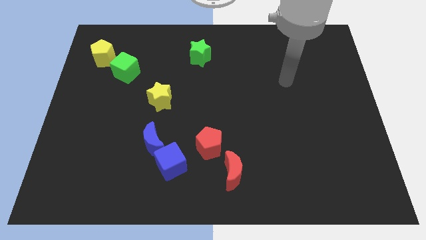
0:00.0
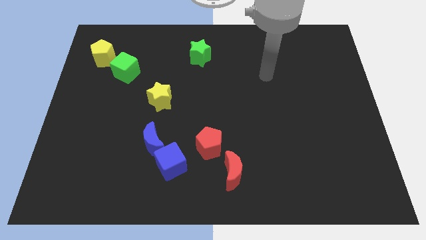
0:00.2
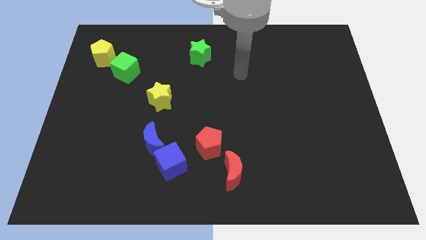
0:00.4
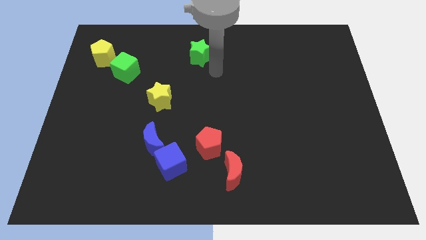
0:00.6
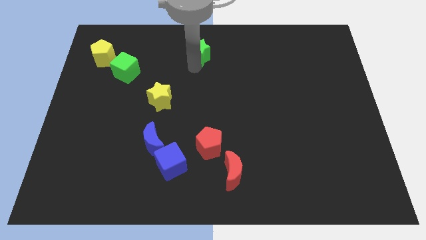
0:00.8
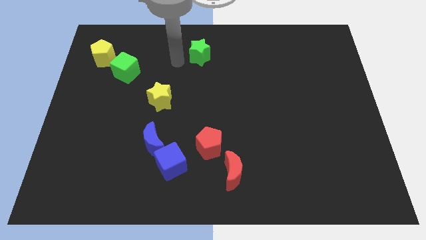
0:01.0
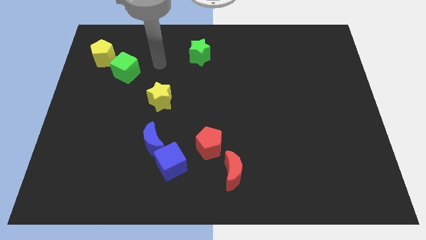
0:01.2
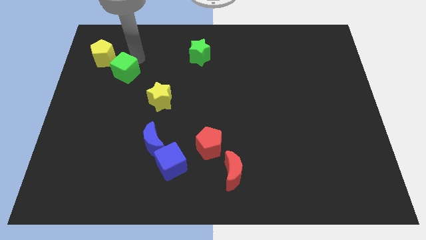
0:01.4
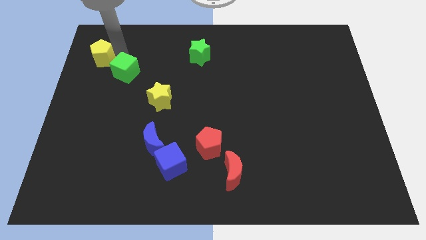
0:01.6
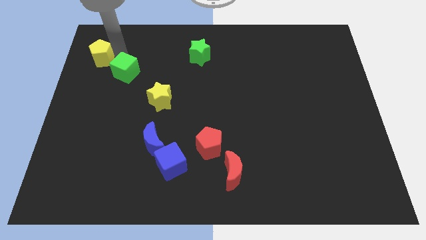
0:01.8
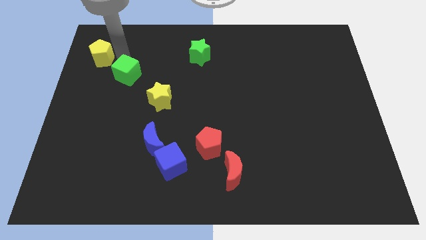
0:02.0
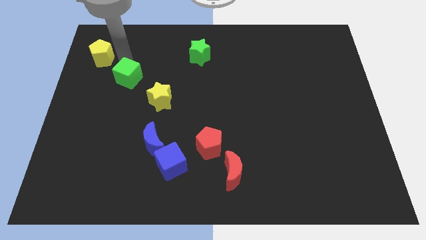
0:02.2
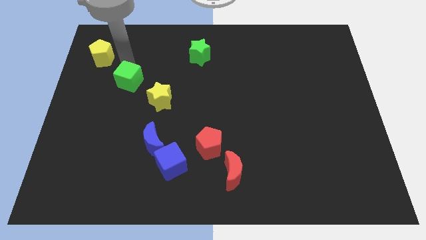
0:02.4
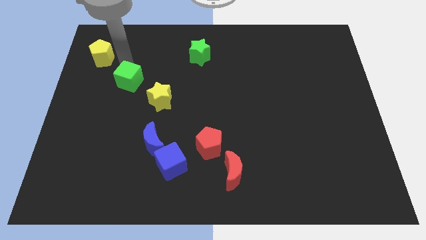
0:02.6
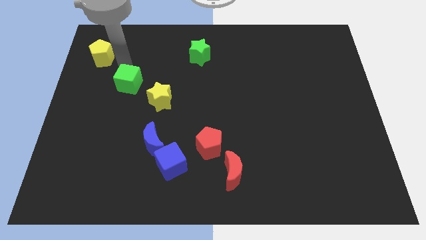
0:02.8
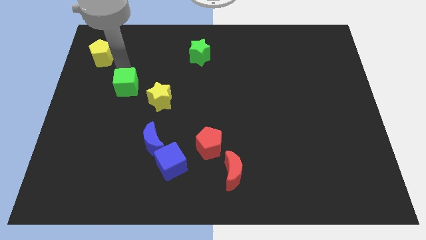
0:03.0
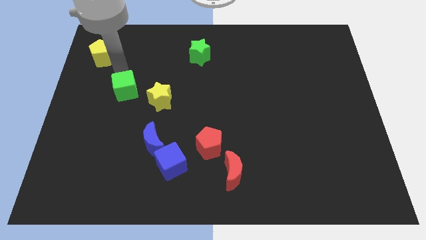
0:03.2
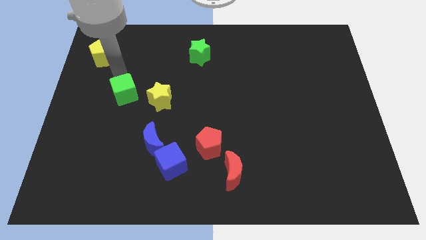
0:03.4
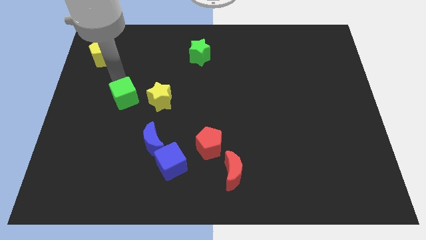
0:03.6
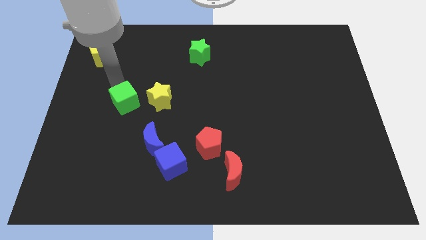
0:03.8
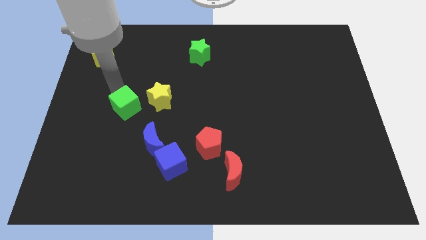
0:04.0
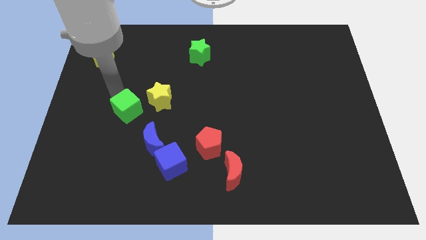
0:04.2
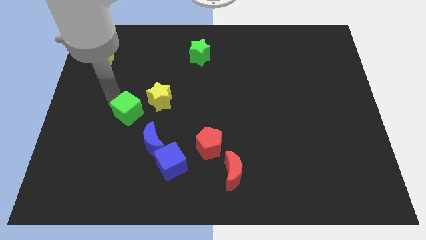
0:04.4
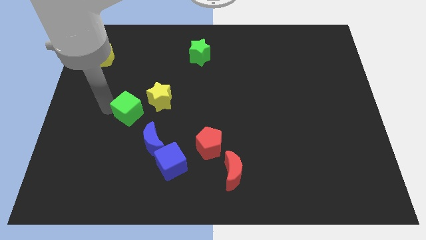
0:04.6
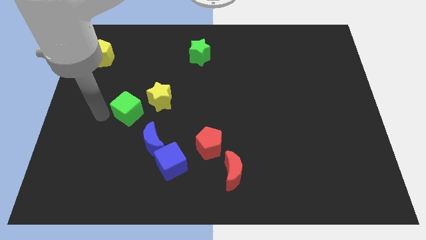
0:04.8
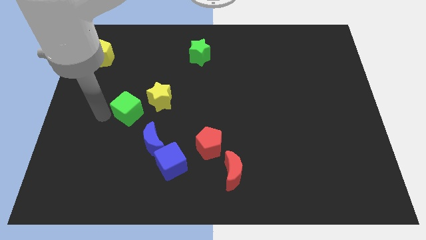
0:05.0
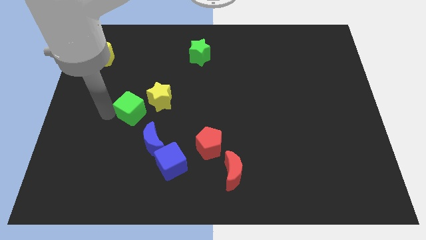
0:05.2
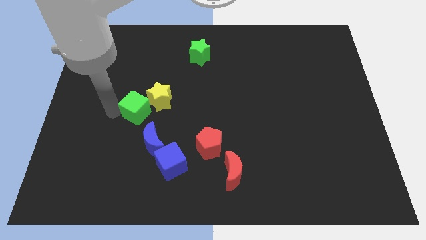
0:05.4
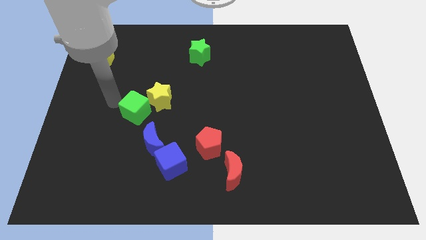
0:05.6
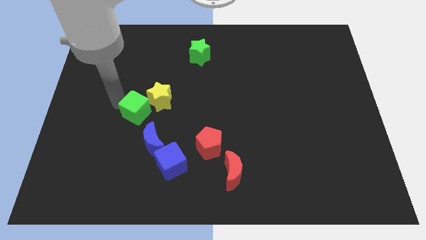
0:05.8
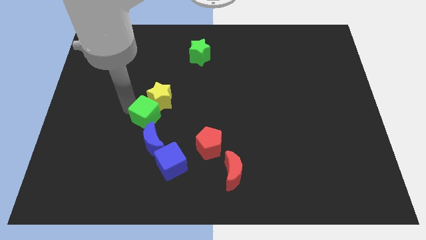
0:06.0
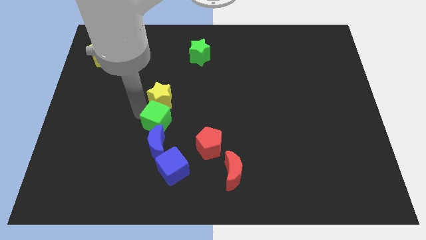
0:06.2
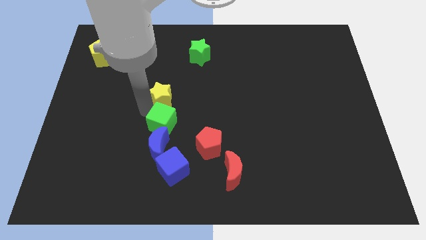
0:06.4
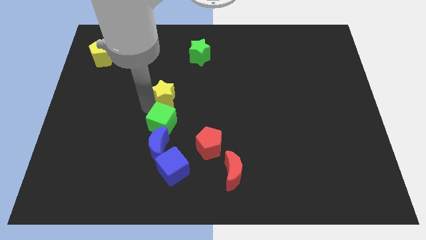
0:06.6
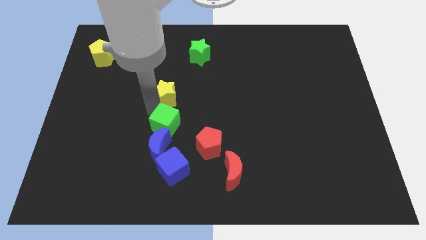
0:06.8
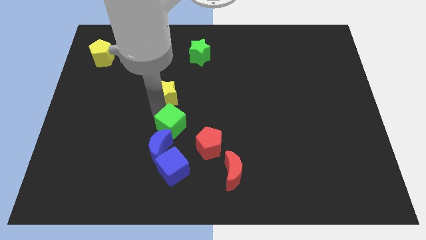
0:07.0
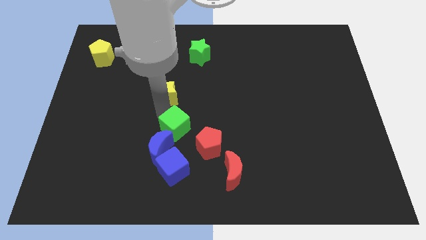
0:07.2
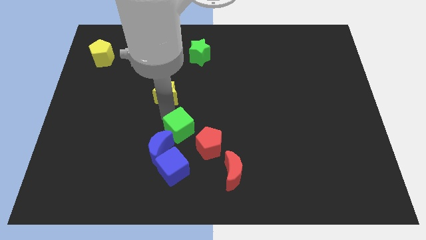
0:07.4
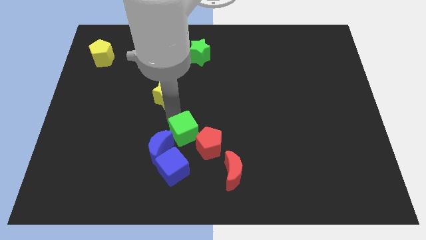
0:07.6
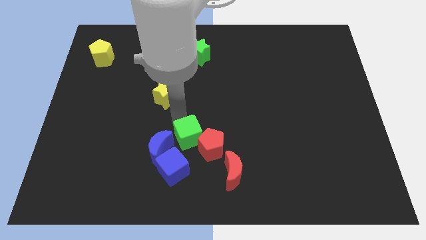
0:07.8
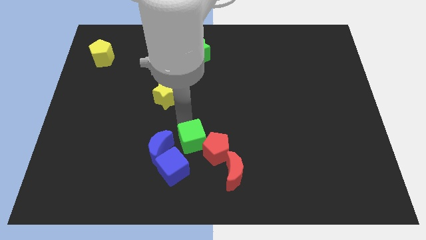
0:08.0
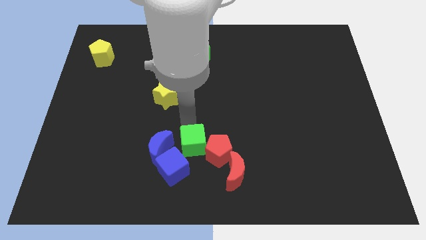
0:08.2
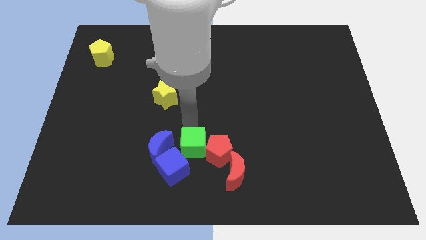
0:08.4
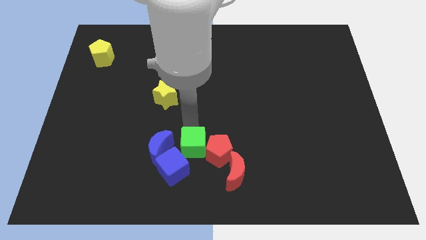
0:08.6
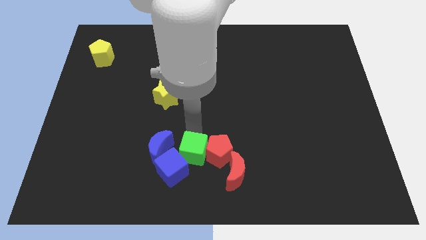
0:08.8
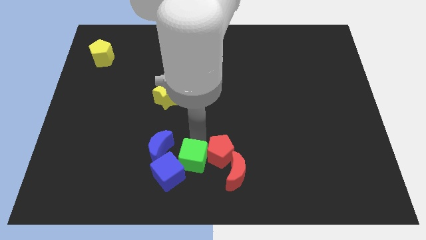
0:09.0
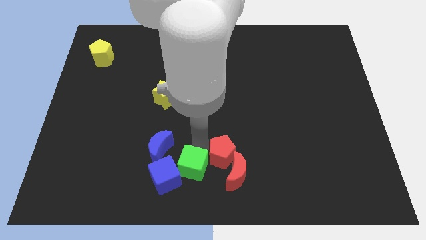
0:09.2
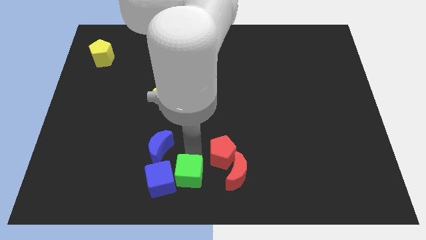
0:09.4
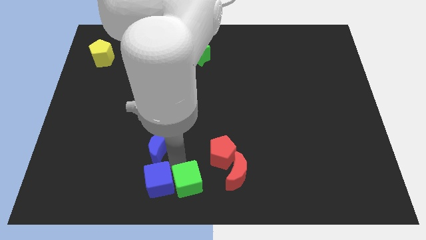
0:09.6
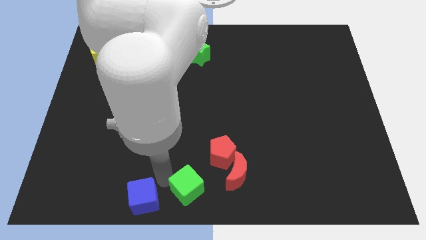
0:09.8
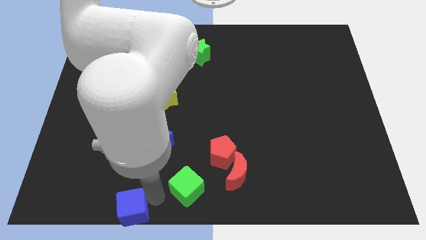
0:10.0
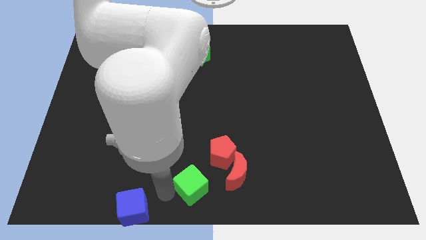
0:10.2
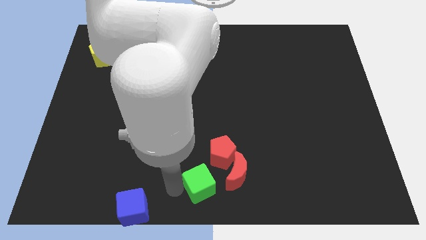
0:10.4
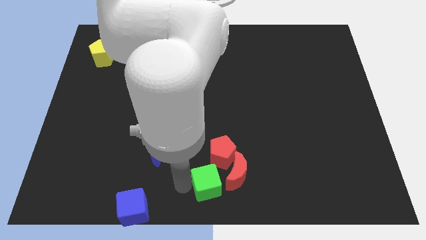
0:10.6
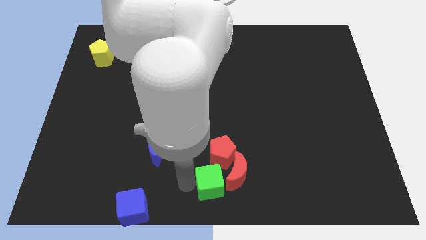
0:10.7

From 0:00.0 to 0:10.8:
move the green cube close to the red moon

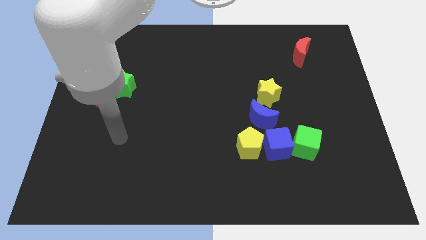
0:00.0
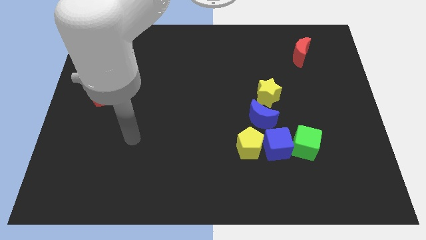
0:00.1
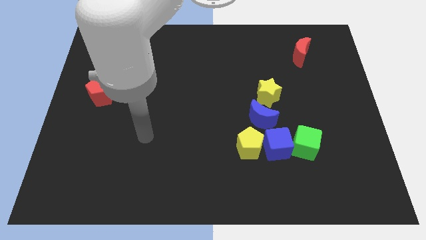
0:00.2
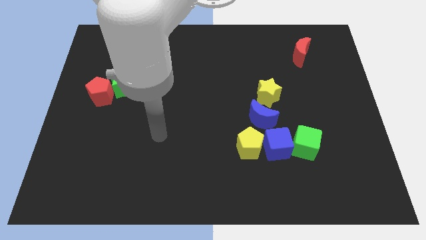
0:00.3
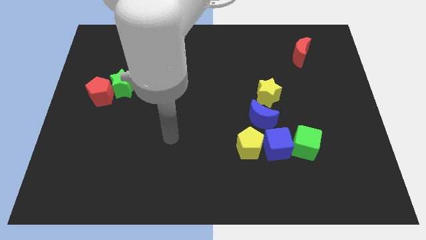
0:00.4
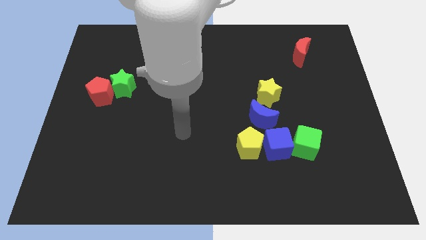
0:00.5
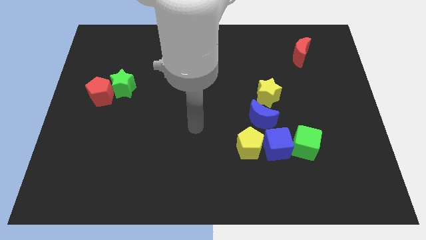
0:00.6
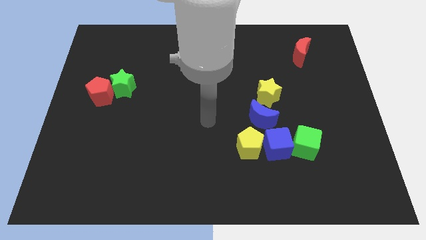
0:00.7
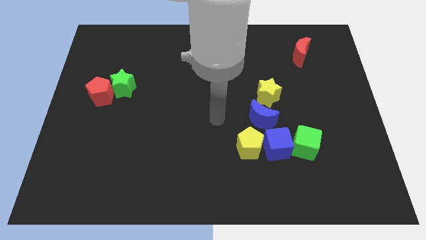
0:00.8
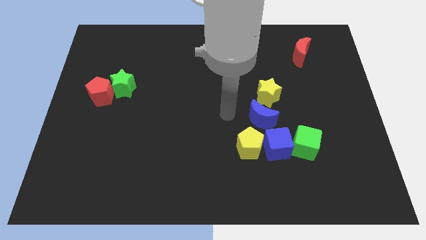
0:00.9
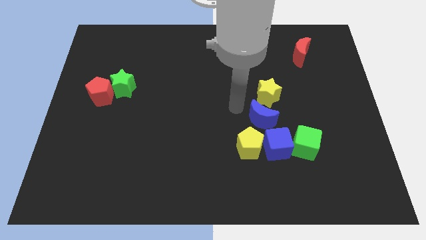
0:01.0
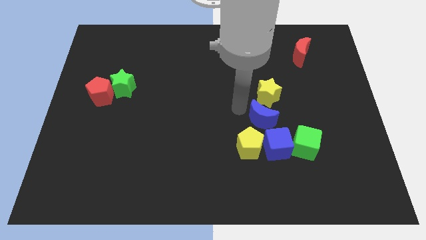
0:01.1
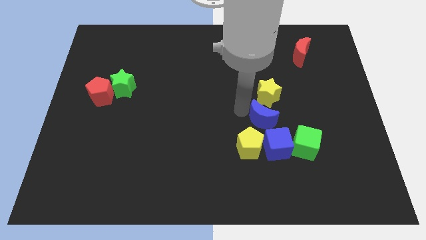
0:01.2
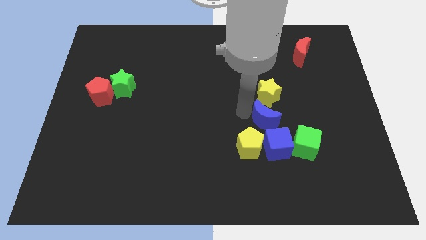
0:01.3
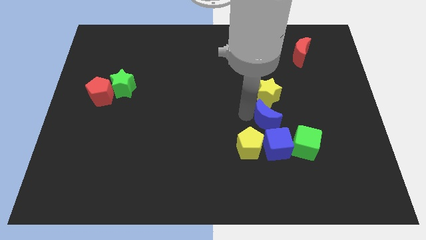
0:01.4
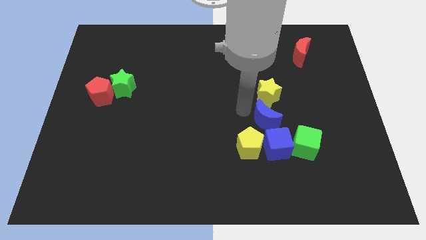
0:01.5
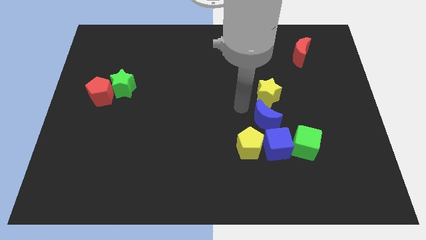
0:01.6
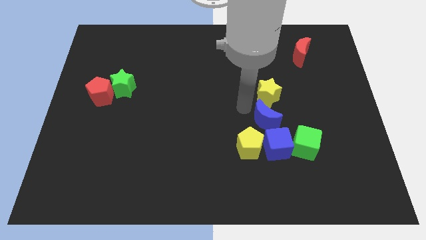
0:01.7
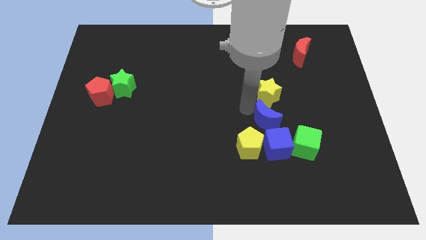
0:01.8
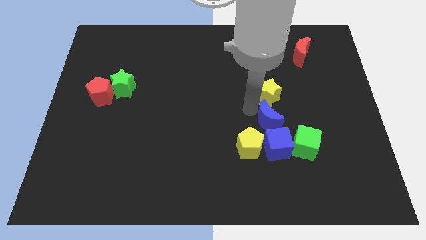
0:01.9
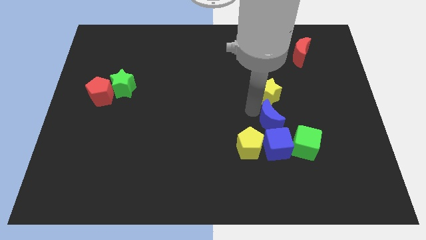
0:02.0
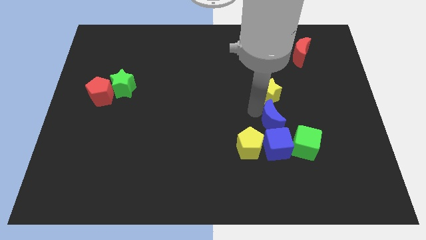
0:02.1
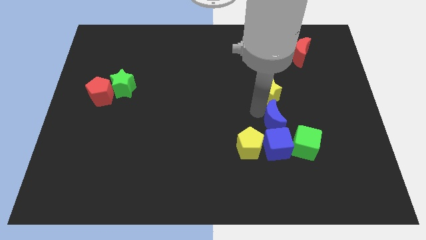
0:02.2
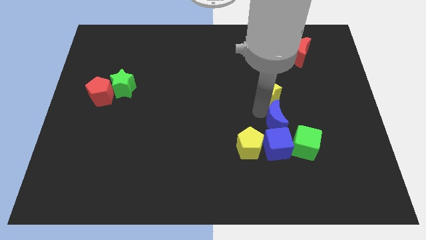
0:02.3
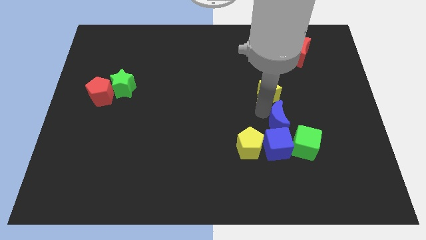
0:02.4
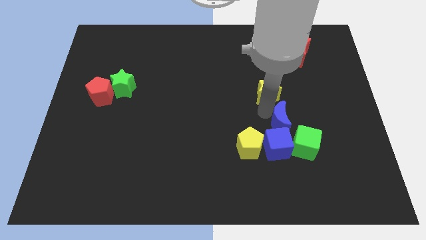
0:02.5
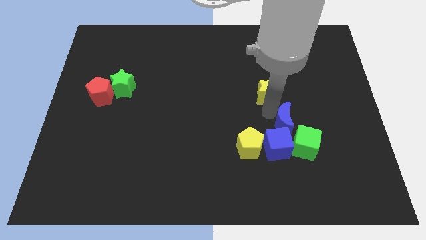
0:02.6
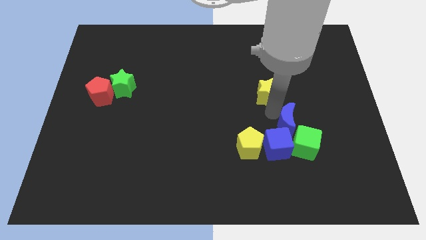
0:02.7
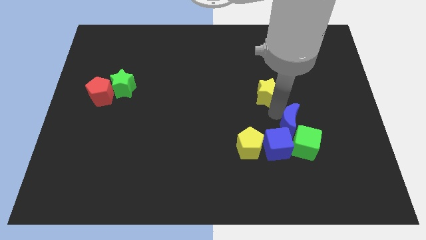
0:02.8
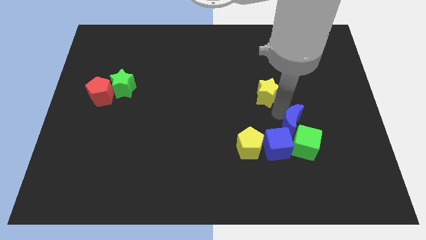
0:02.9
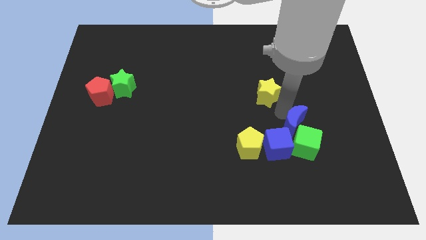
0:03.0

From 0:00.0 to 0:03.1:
push the blue moon to the green cube

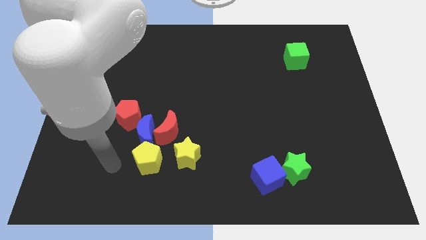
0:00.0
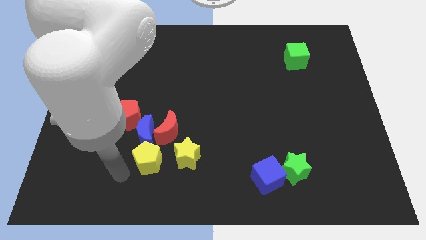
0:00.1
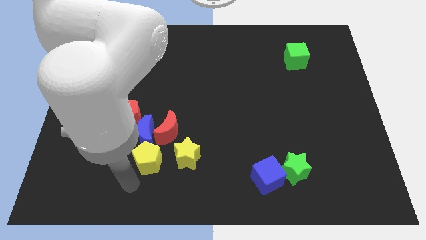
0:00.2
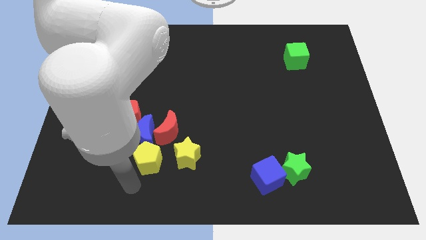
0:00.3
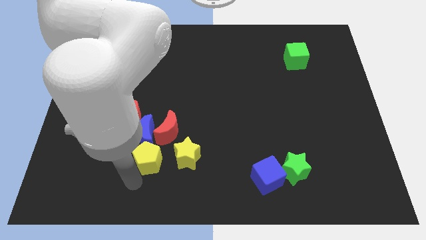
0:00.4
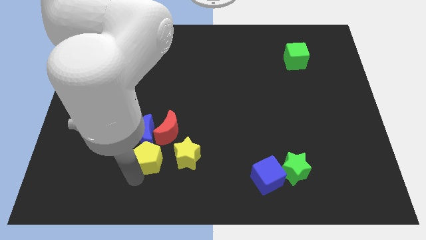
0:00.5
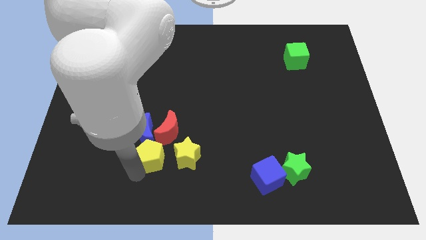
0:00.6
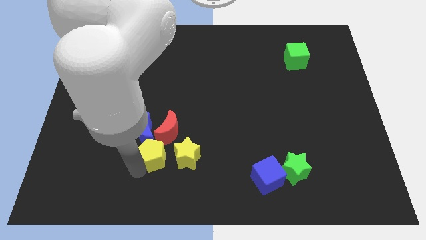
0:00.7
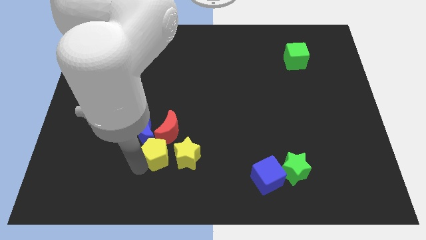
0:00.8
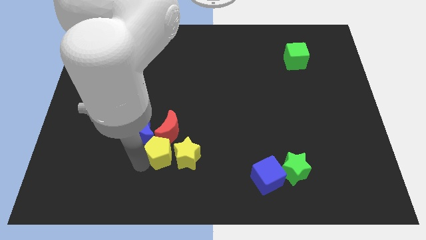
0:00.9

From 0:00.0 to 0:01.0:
push the yellow pentagon to the red moon
